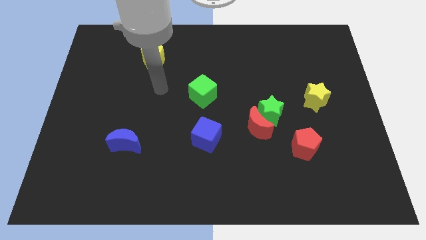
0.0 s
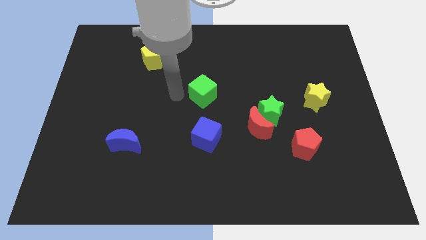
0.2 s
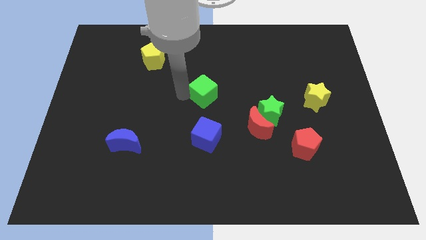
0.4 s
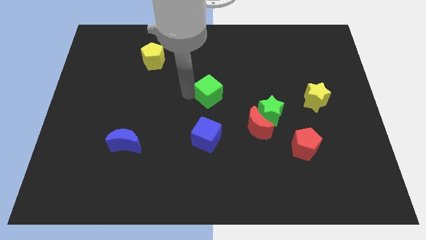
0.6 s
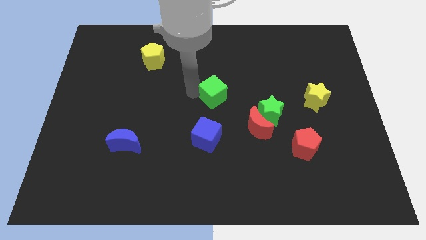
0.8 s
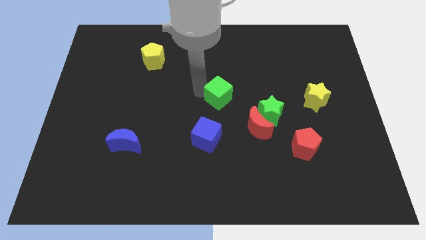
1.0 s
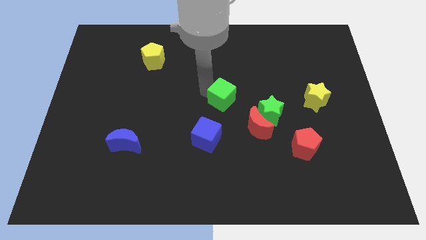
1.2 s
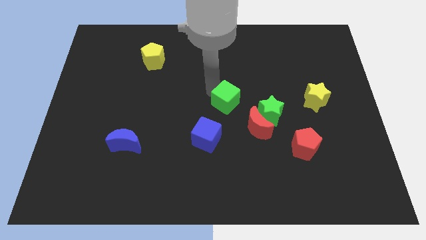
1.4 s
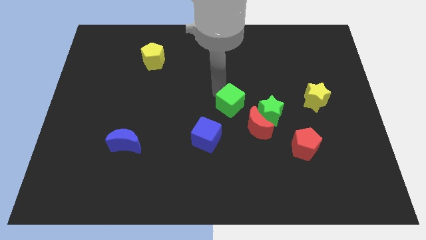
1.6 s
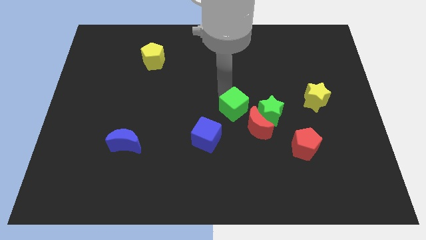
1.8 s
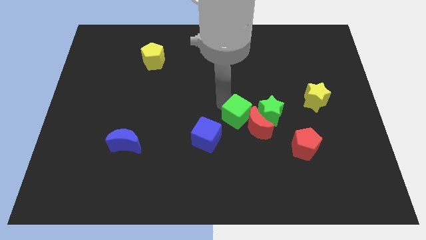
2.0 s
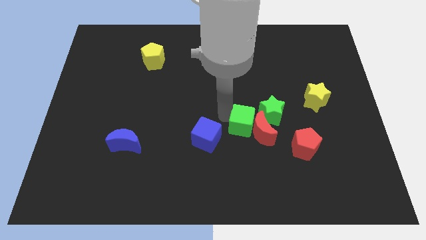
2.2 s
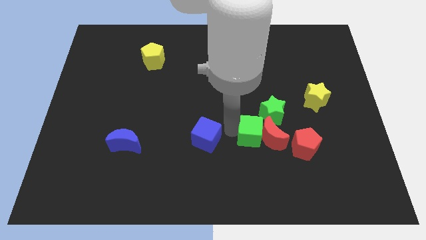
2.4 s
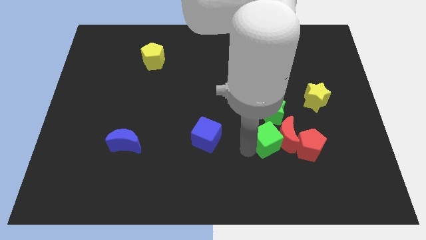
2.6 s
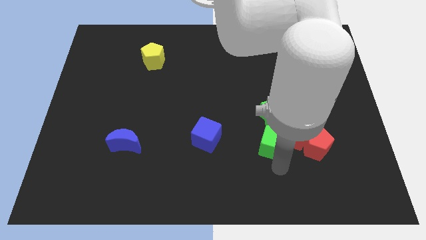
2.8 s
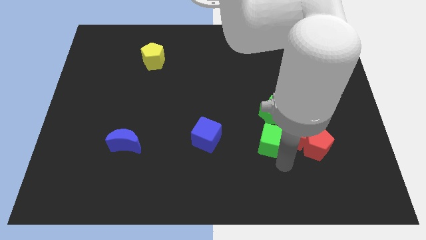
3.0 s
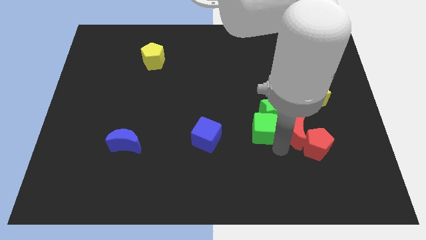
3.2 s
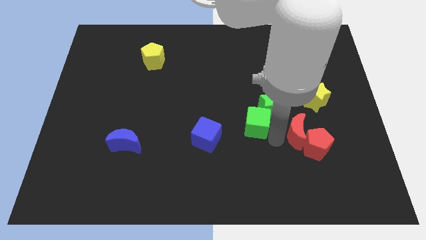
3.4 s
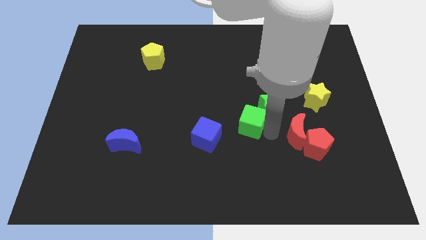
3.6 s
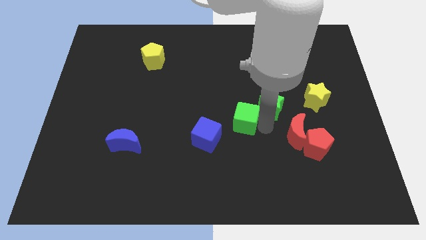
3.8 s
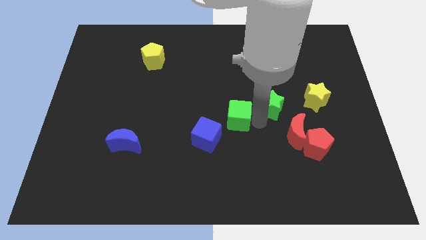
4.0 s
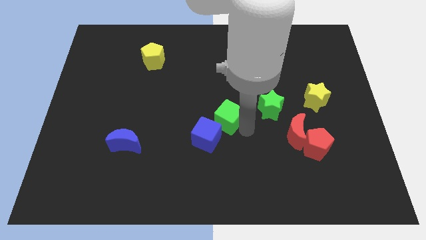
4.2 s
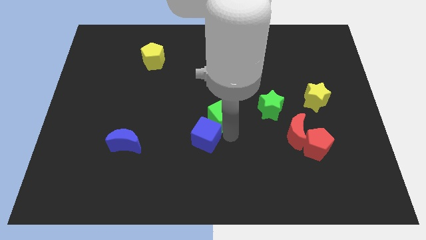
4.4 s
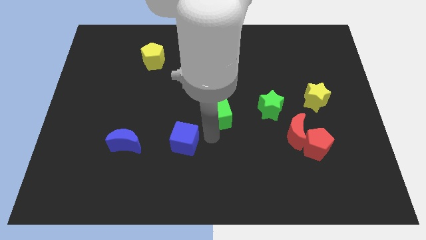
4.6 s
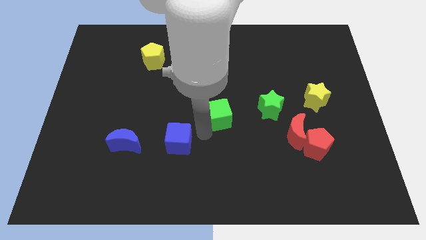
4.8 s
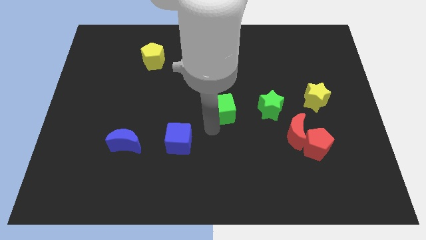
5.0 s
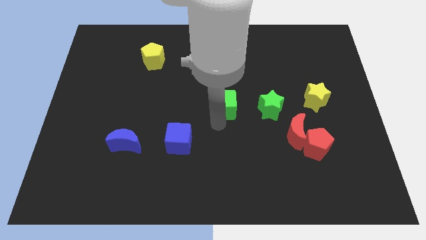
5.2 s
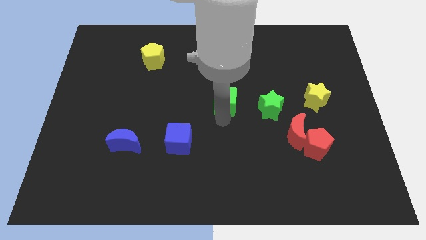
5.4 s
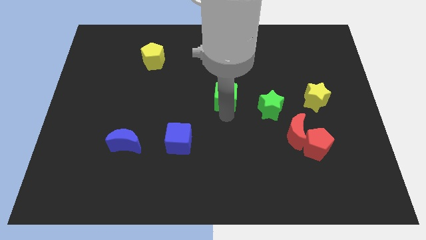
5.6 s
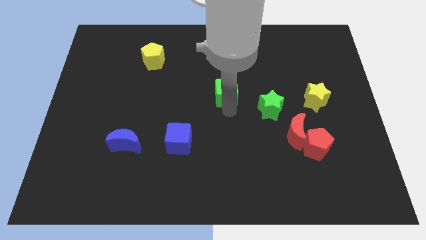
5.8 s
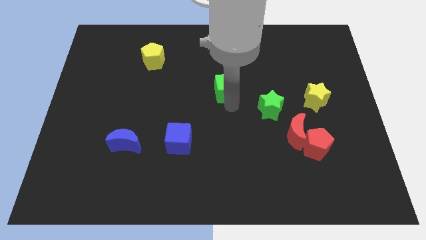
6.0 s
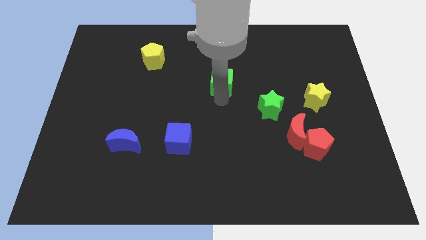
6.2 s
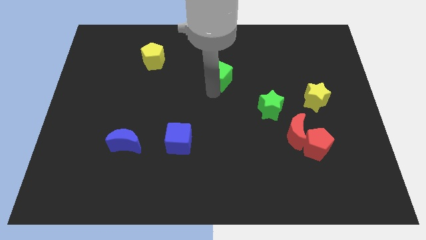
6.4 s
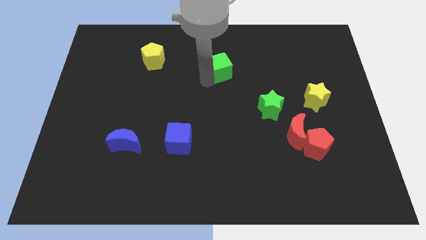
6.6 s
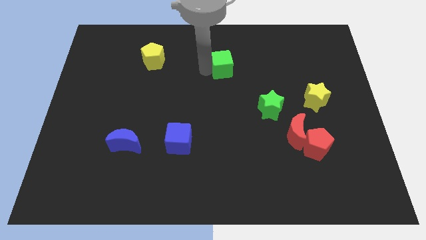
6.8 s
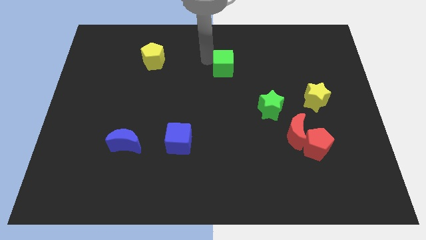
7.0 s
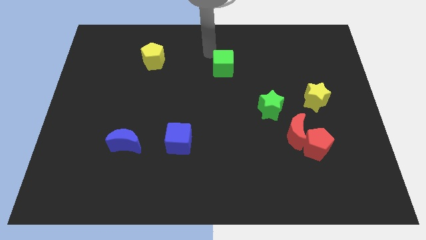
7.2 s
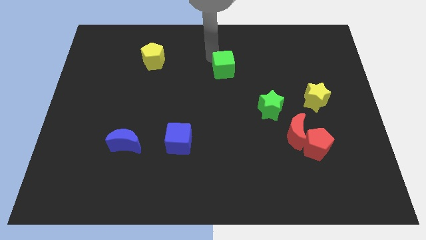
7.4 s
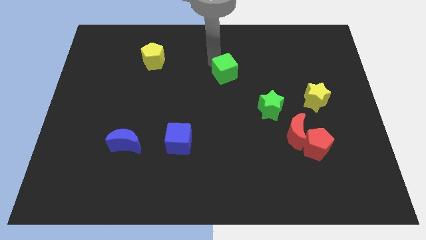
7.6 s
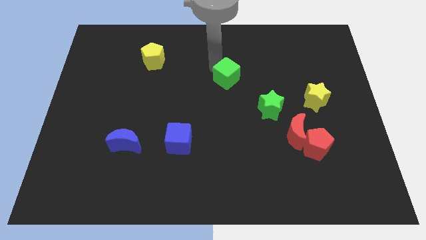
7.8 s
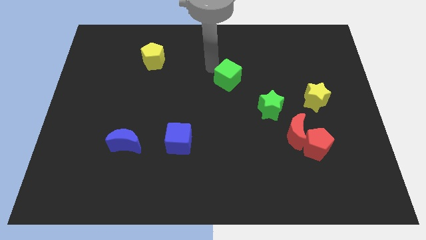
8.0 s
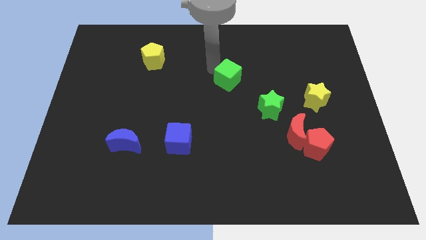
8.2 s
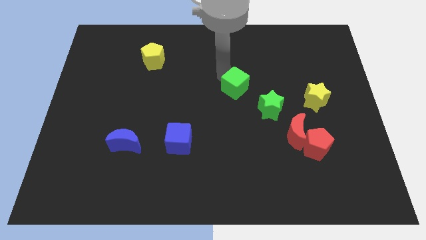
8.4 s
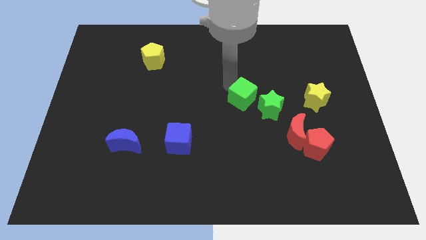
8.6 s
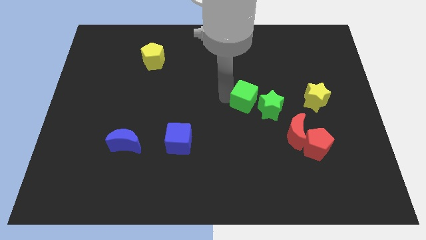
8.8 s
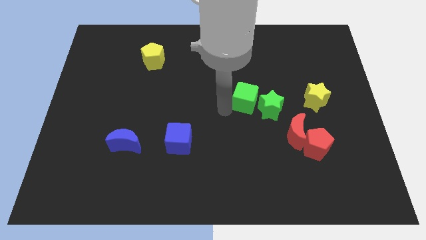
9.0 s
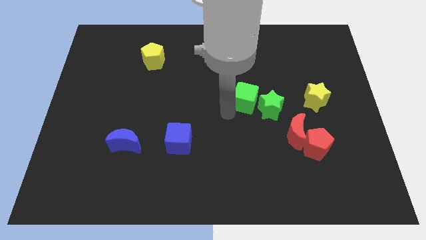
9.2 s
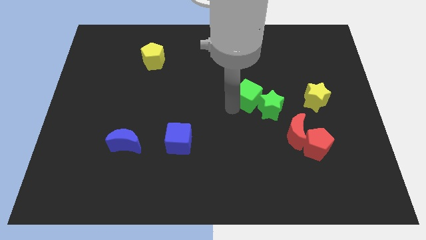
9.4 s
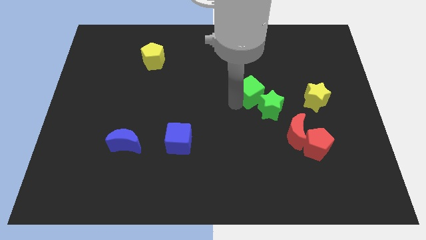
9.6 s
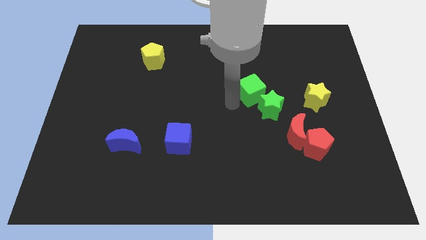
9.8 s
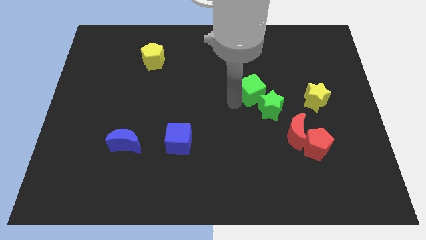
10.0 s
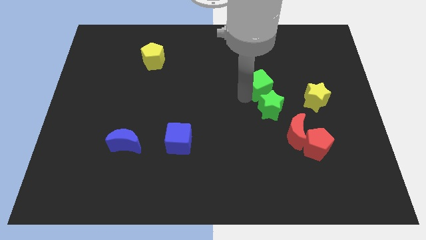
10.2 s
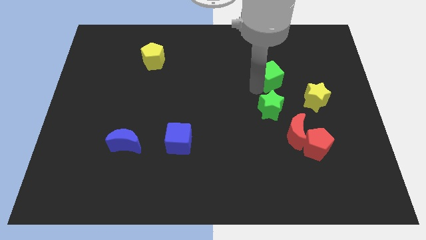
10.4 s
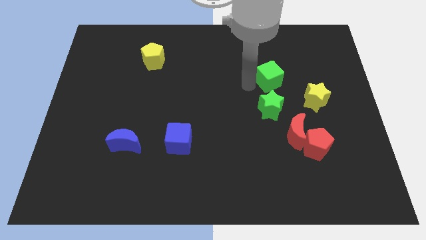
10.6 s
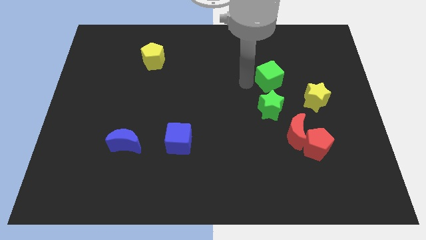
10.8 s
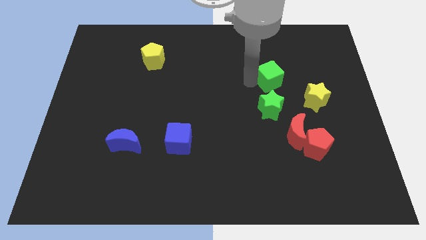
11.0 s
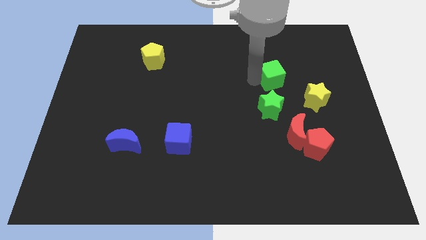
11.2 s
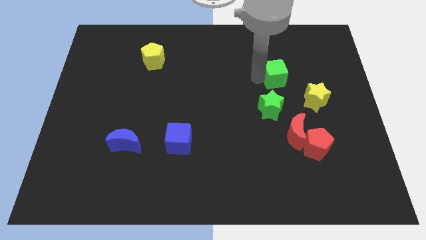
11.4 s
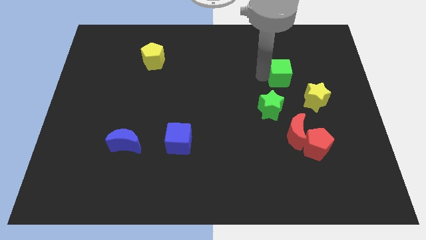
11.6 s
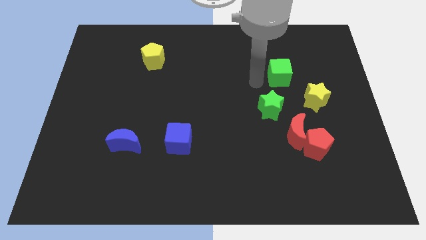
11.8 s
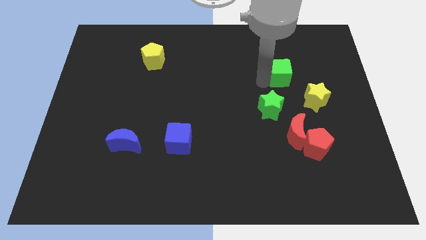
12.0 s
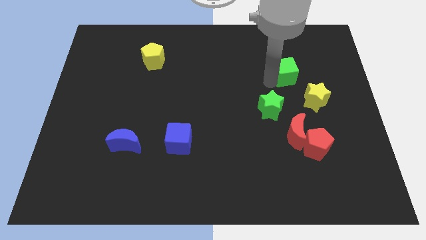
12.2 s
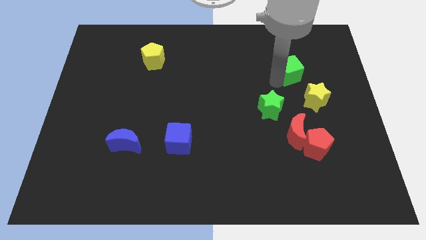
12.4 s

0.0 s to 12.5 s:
push the green cube above the yellow star

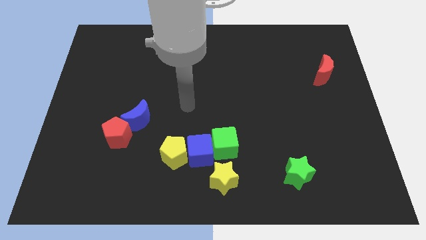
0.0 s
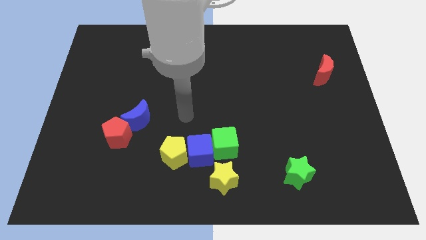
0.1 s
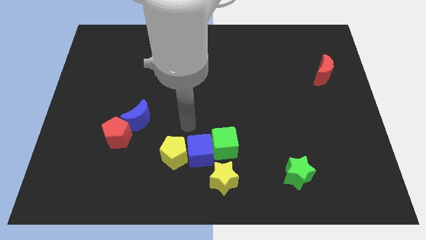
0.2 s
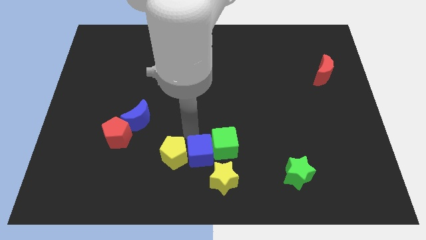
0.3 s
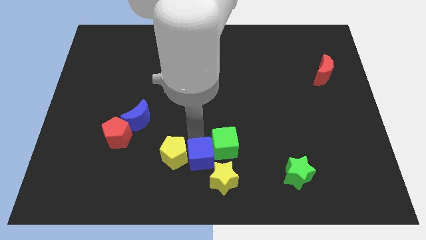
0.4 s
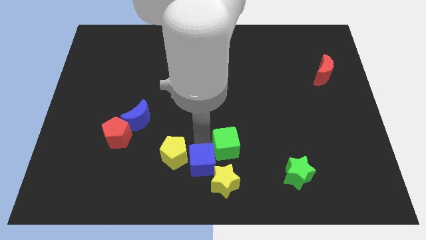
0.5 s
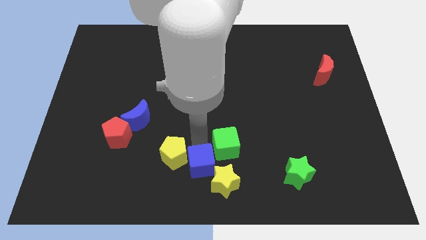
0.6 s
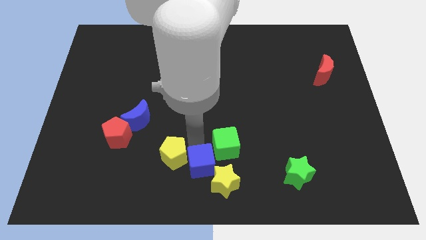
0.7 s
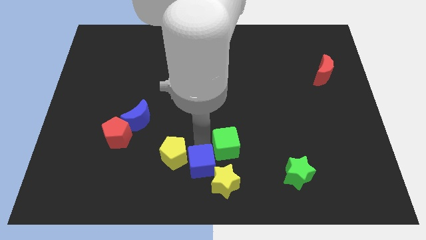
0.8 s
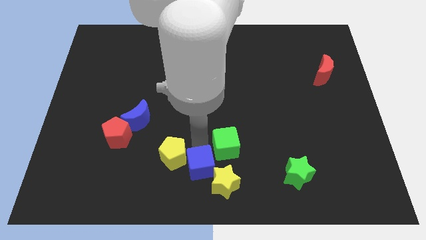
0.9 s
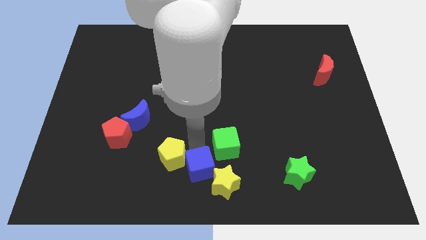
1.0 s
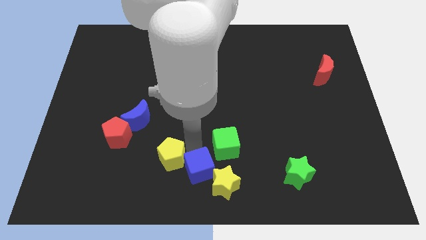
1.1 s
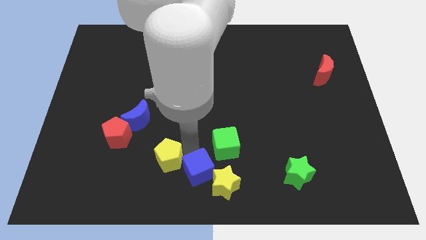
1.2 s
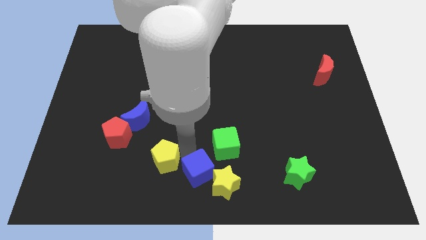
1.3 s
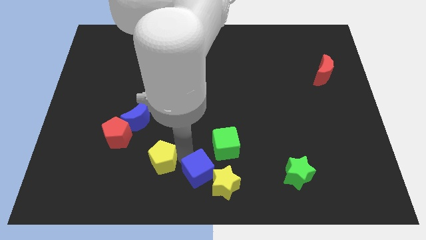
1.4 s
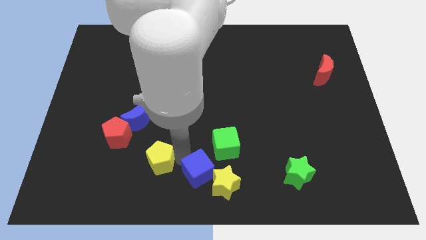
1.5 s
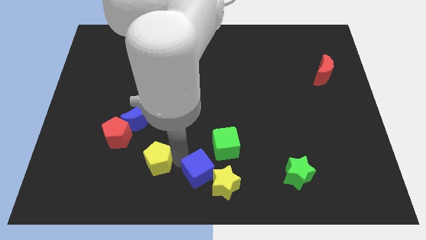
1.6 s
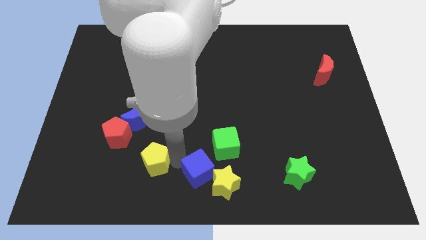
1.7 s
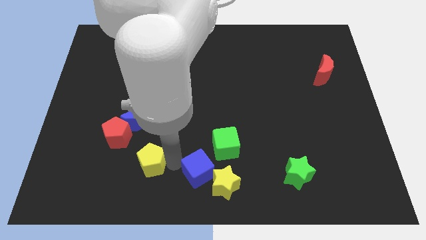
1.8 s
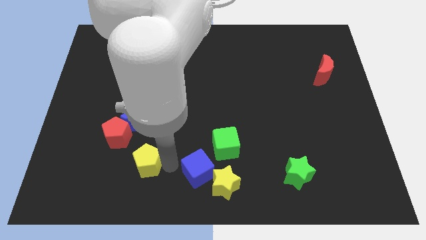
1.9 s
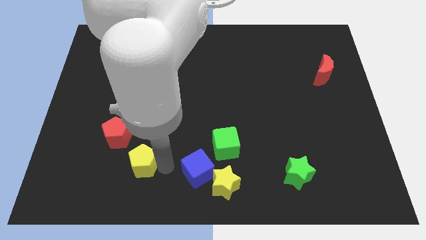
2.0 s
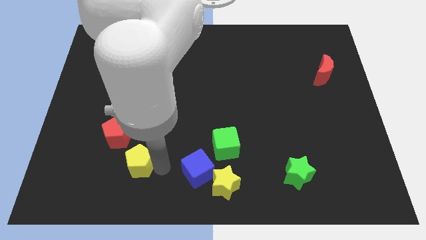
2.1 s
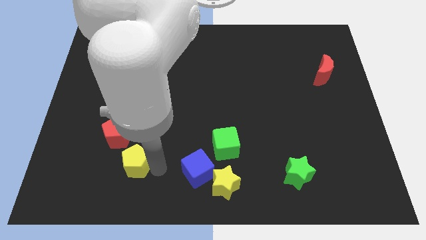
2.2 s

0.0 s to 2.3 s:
move the yellow pentagon to the bottom of the red pentagon
